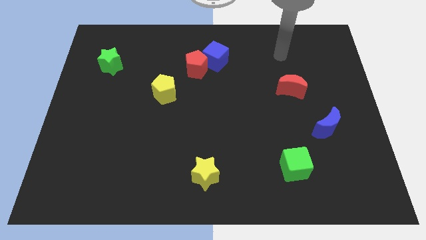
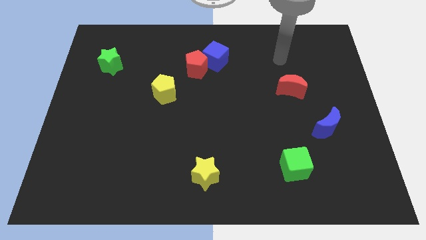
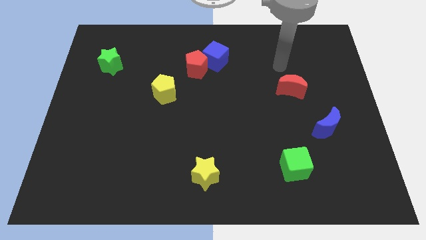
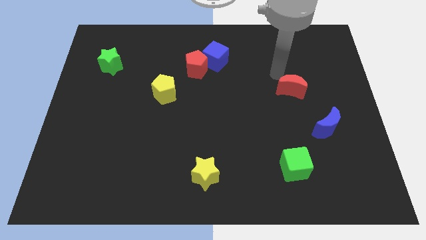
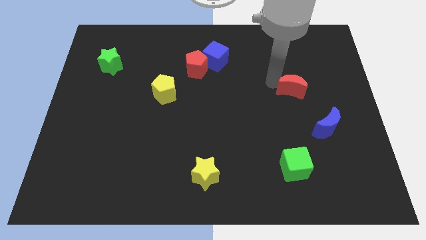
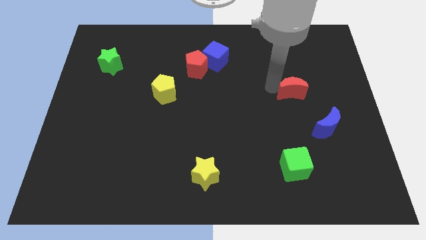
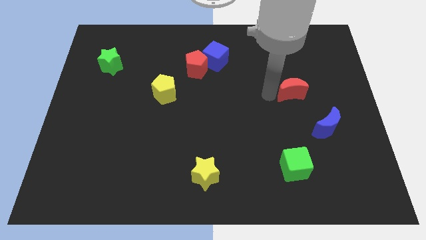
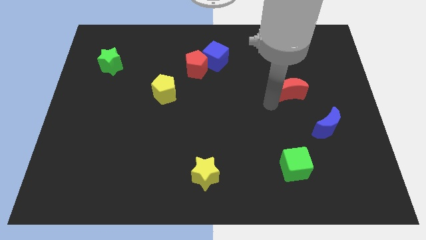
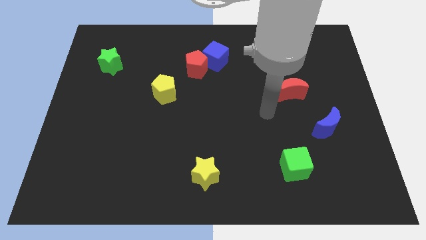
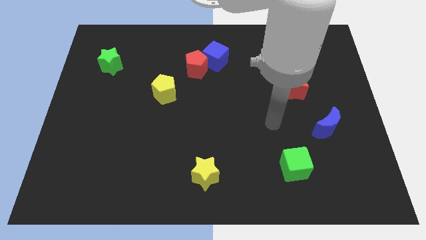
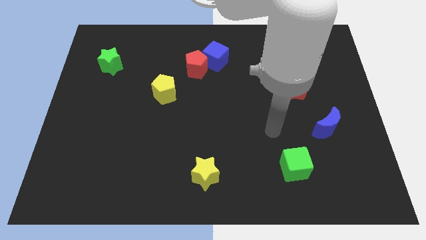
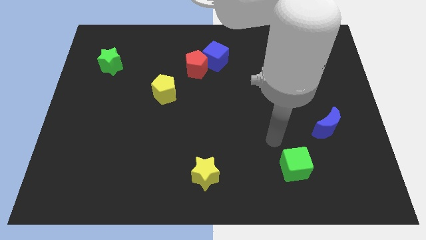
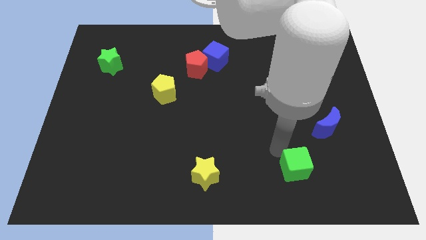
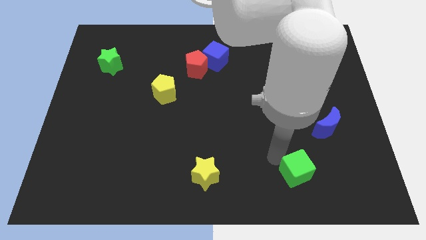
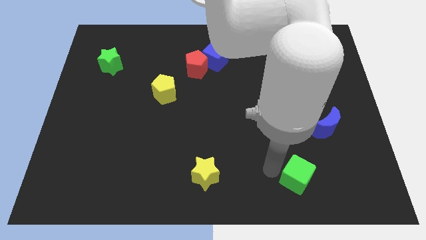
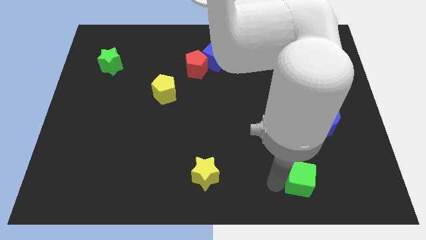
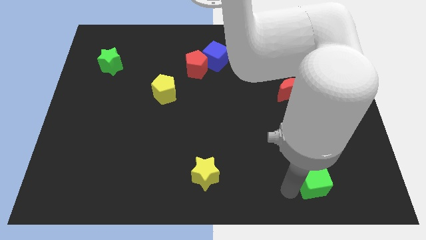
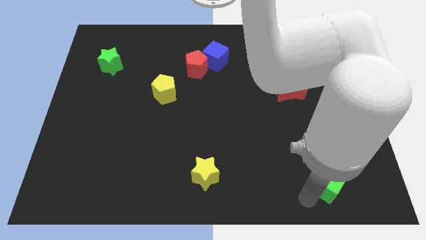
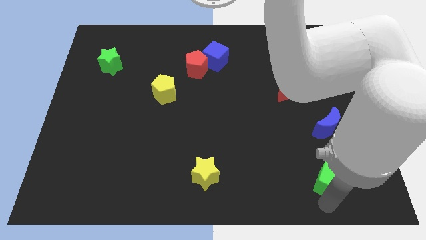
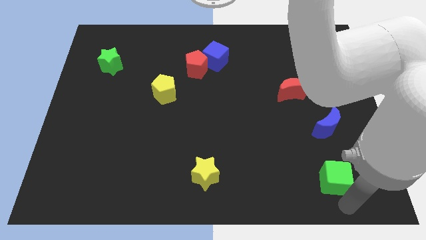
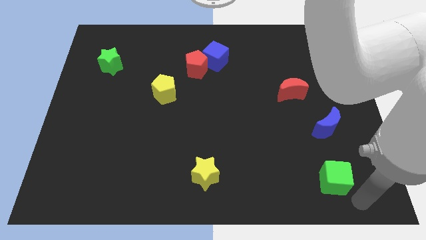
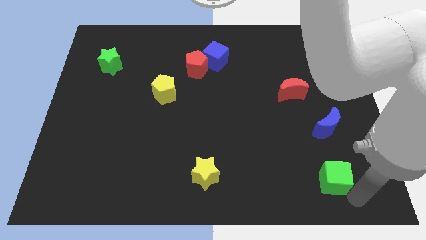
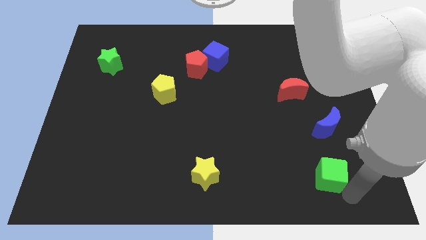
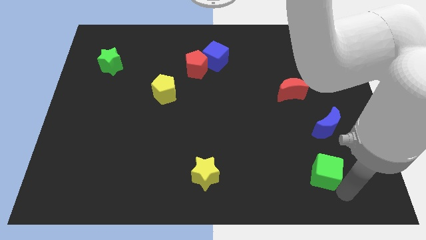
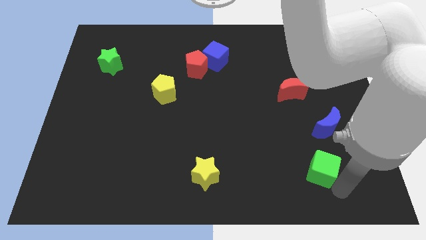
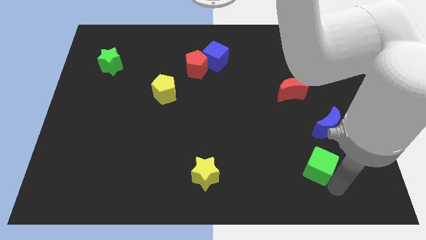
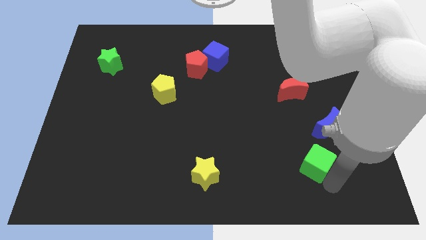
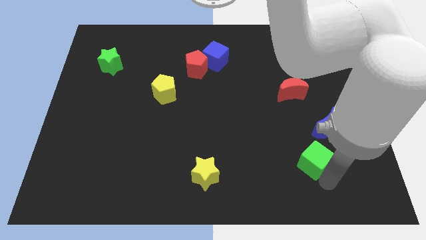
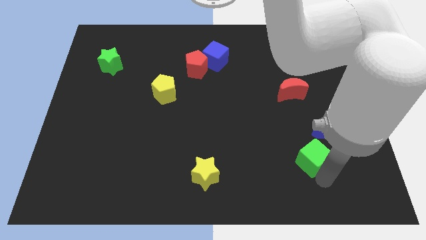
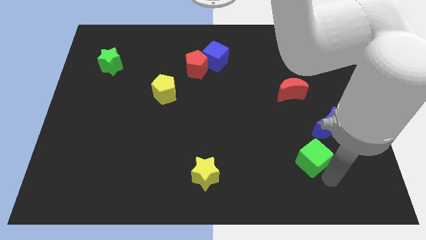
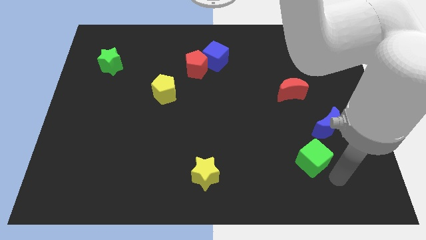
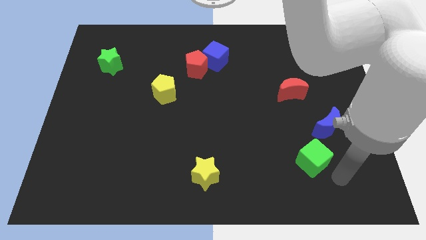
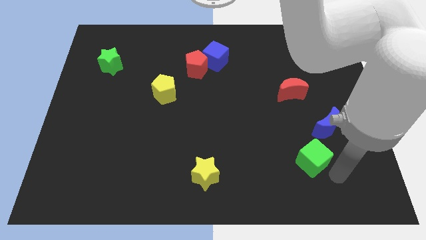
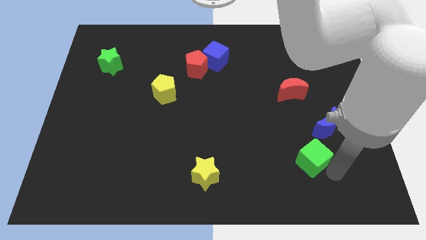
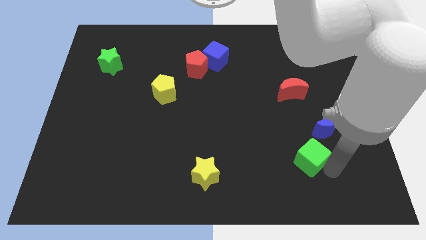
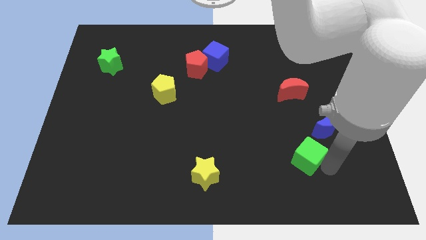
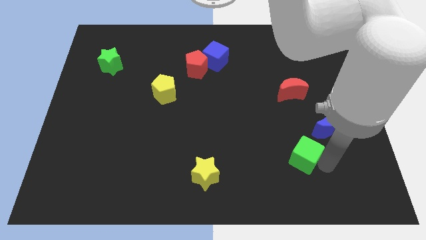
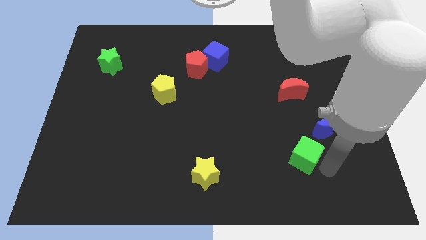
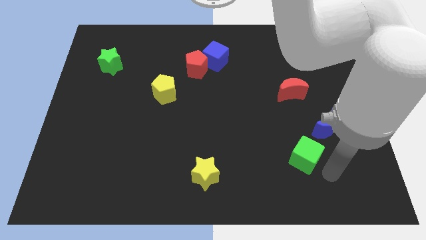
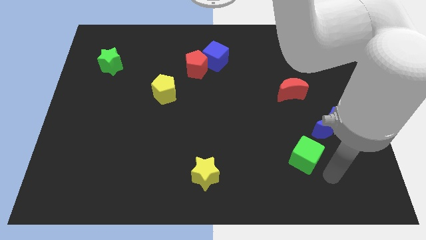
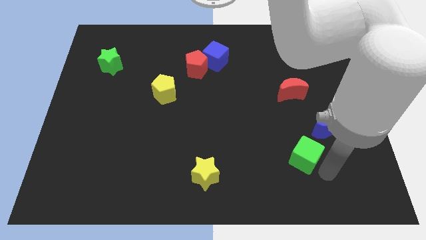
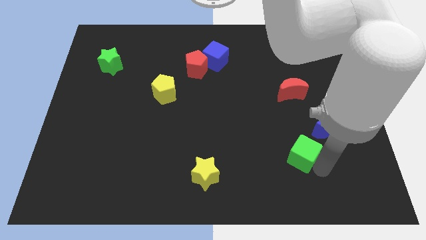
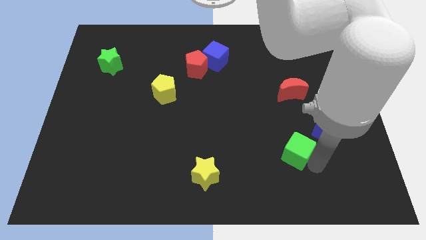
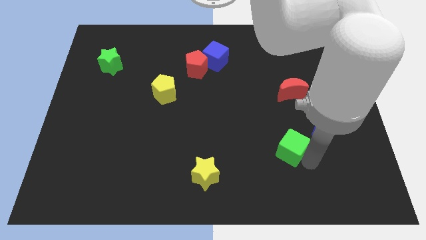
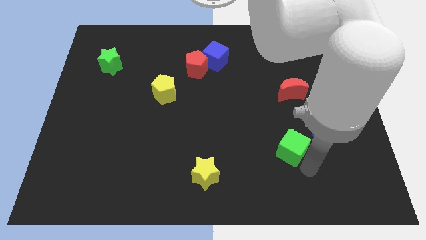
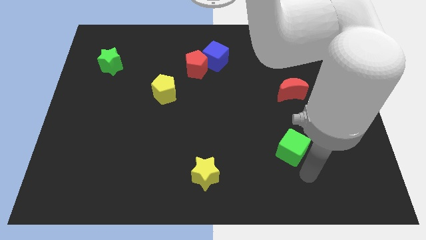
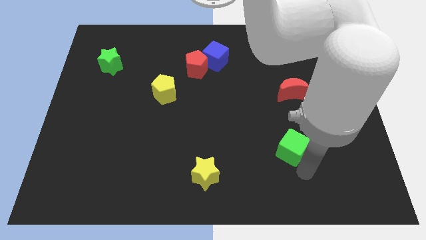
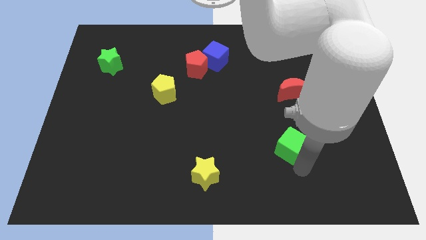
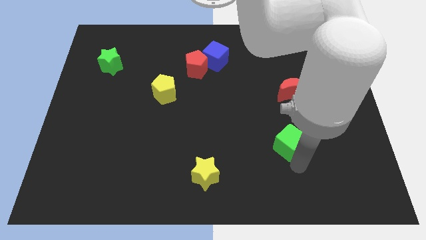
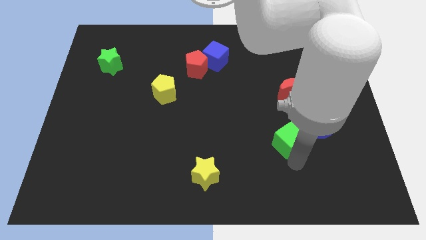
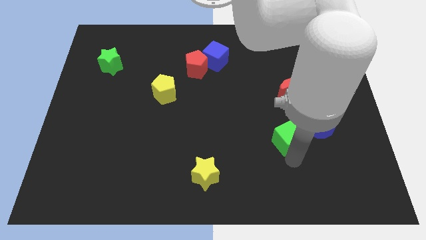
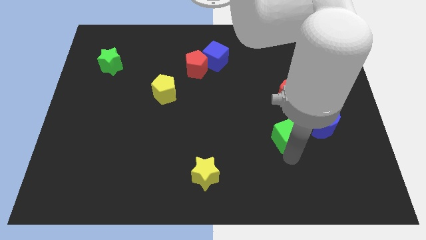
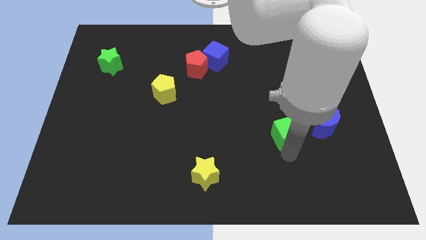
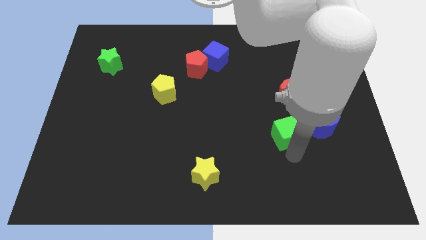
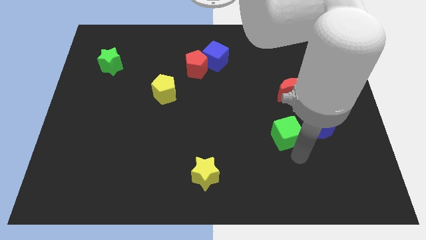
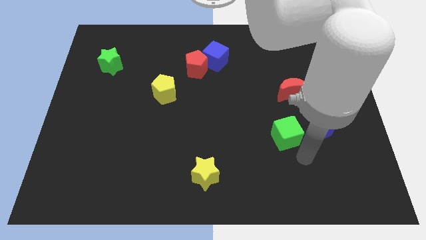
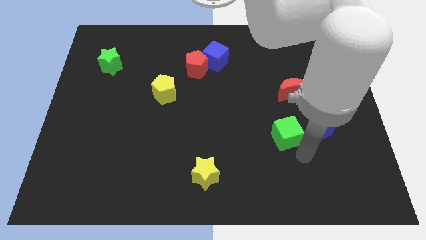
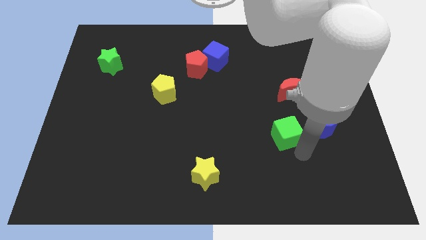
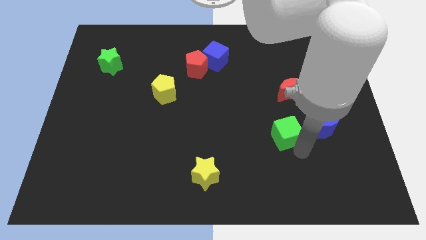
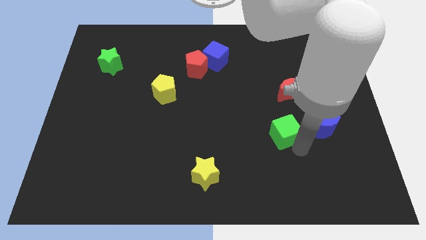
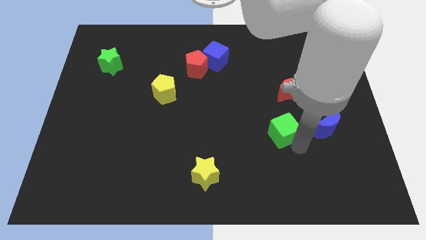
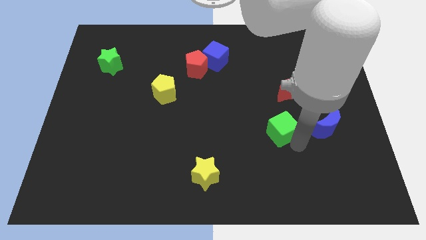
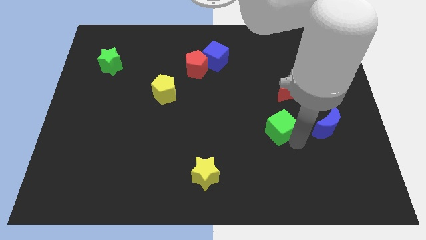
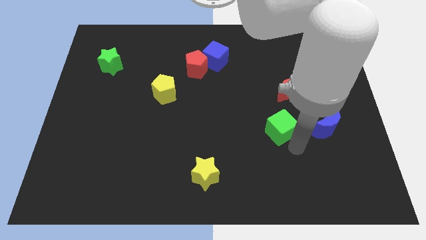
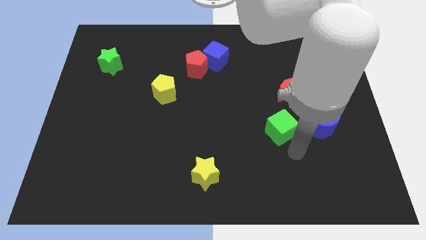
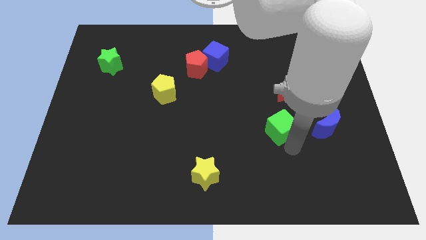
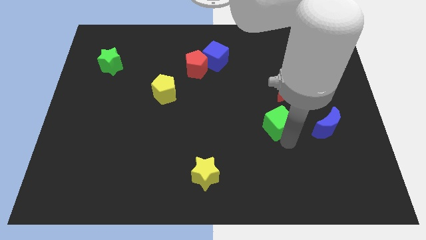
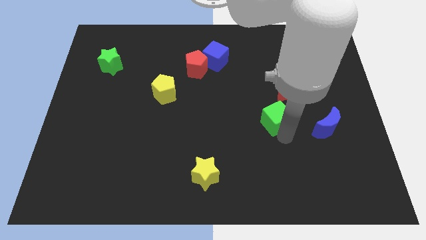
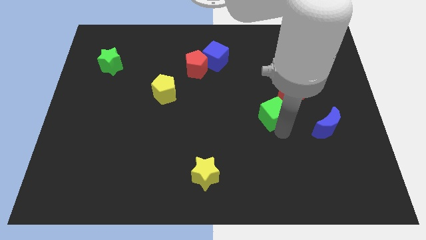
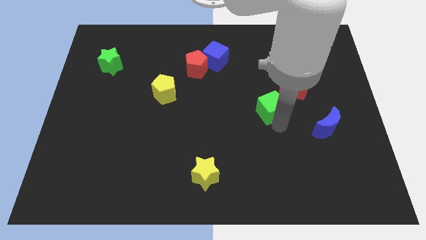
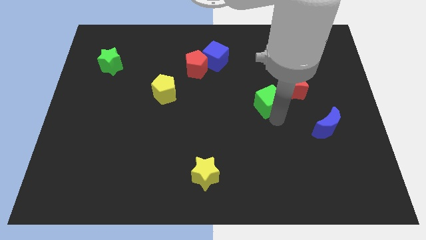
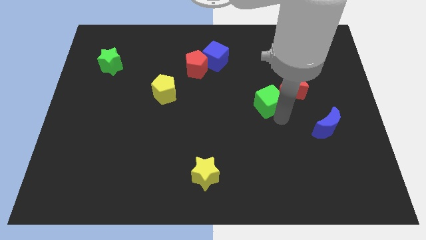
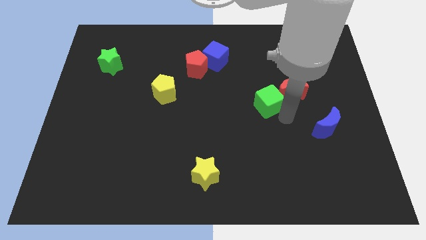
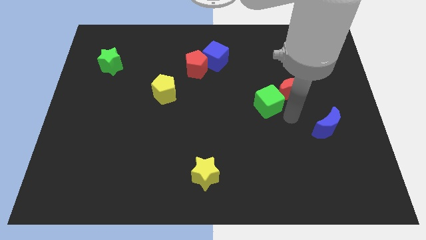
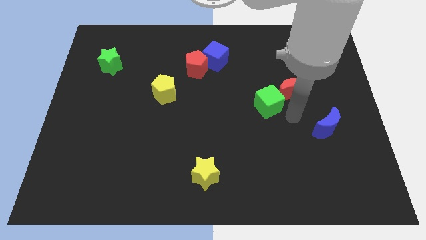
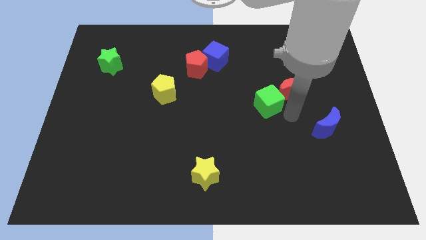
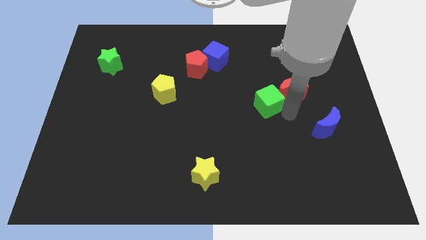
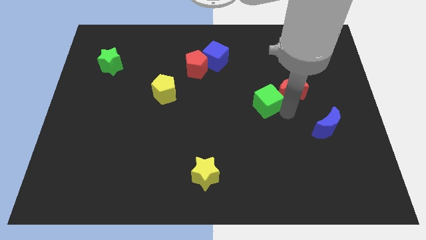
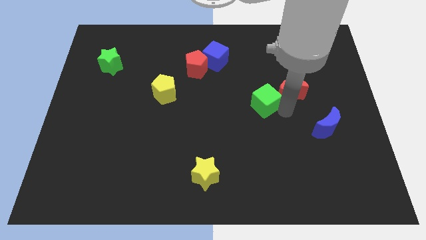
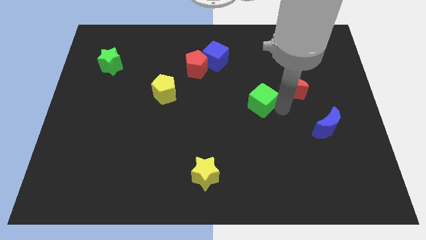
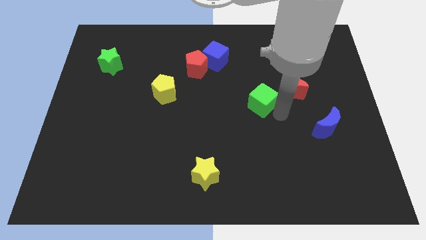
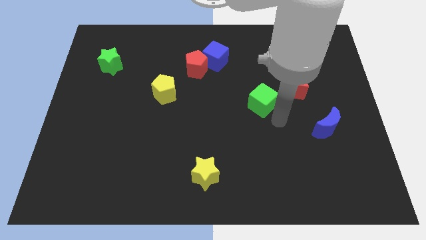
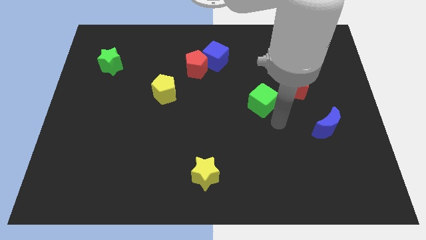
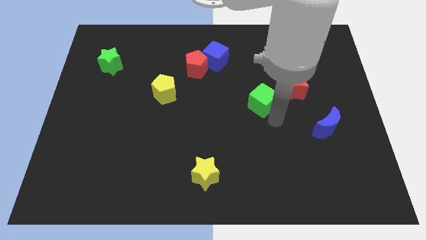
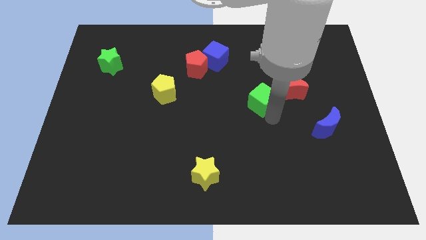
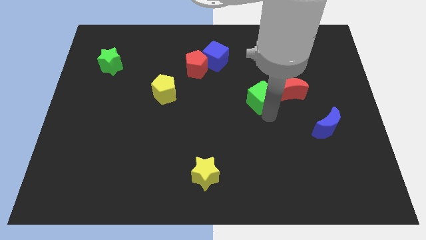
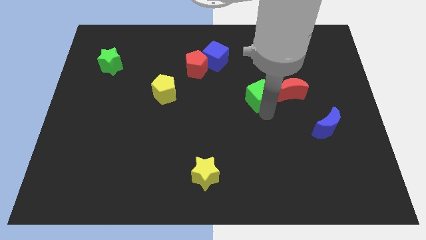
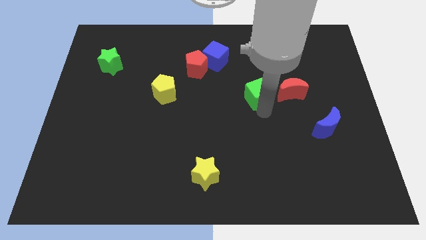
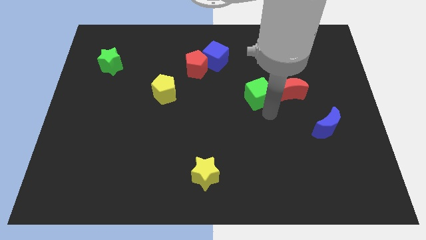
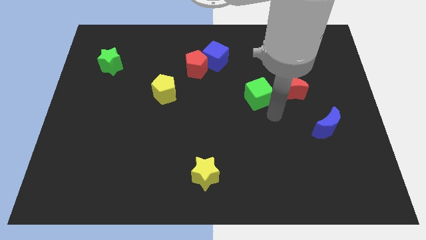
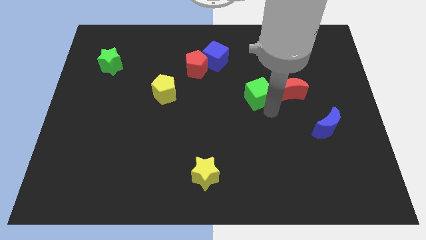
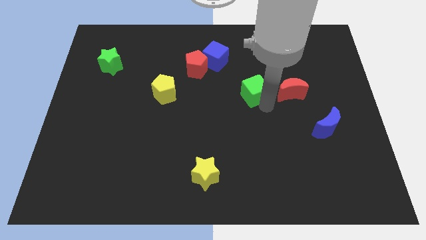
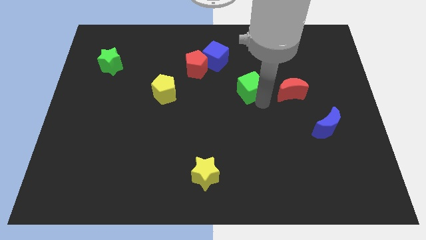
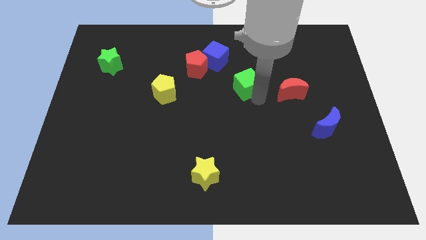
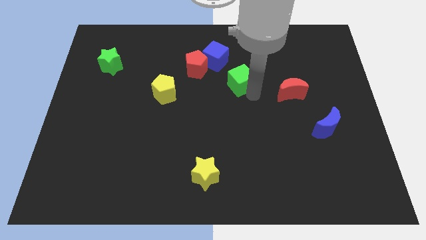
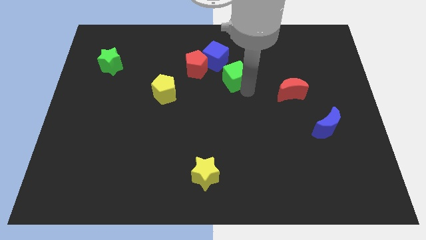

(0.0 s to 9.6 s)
push the green cube right of the red pentagon
